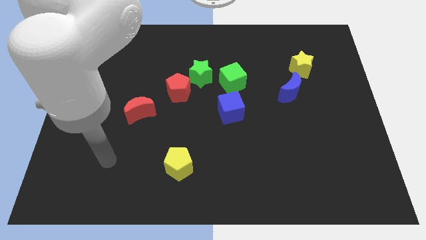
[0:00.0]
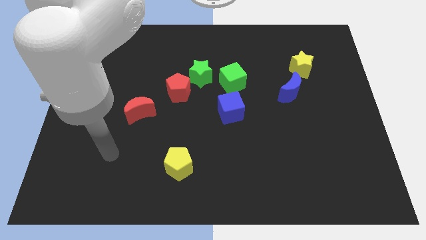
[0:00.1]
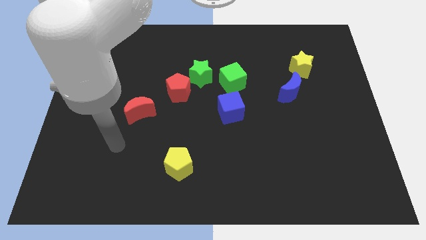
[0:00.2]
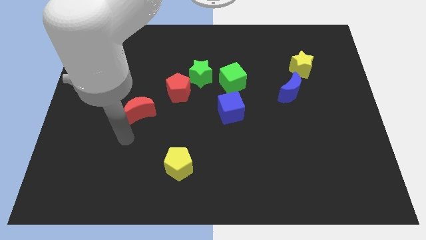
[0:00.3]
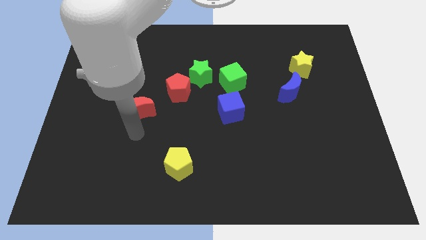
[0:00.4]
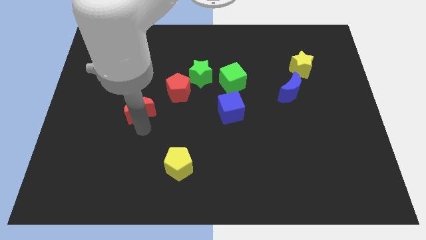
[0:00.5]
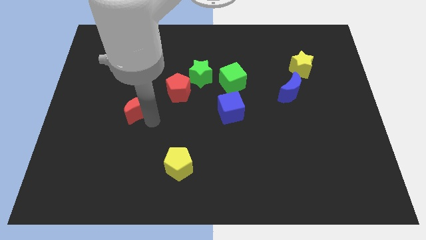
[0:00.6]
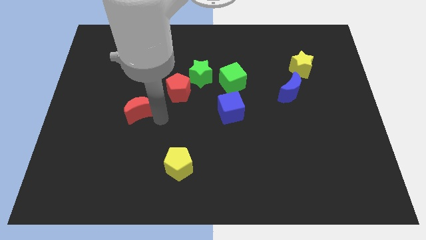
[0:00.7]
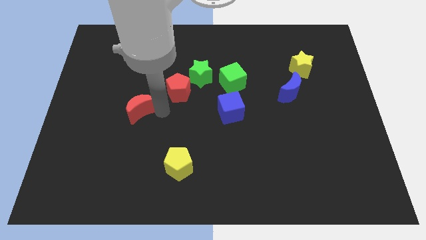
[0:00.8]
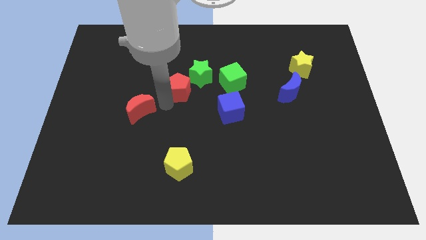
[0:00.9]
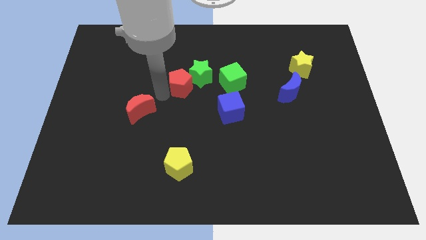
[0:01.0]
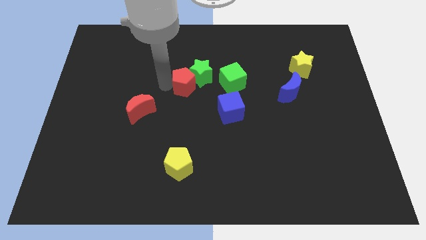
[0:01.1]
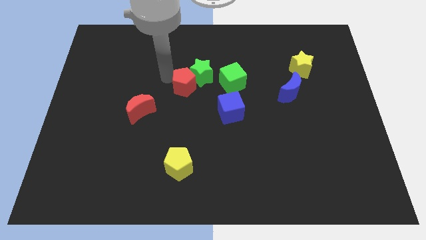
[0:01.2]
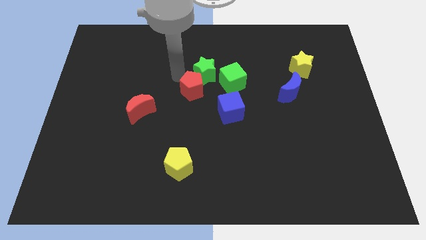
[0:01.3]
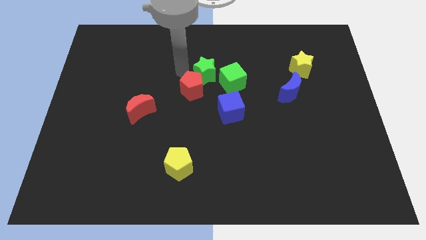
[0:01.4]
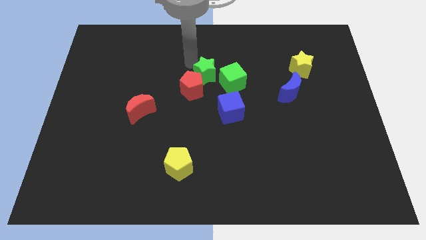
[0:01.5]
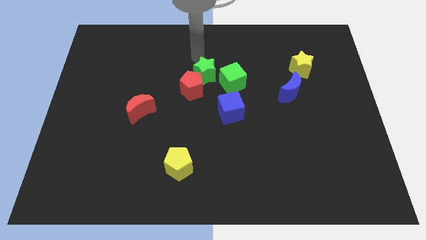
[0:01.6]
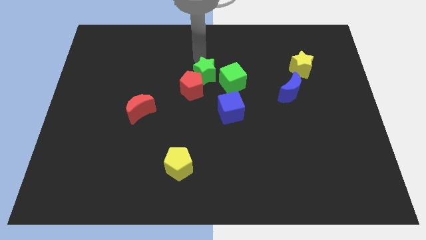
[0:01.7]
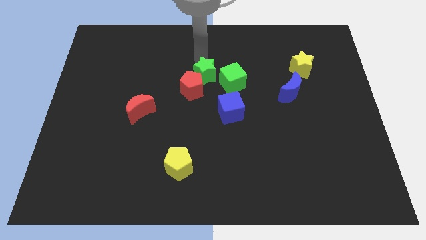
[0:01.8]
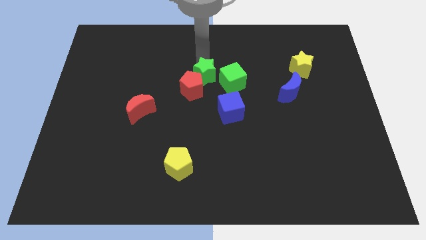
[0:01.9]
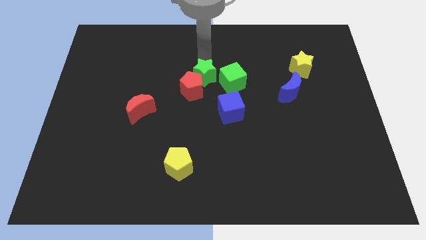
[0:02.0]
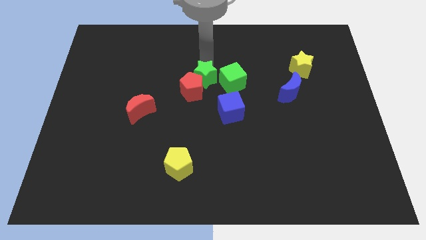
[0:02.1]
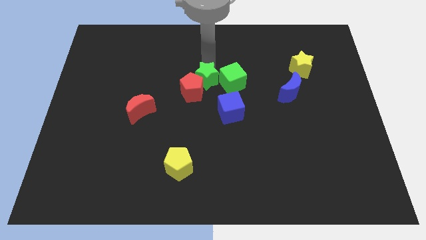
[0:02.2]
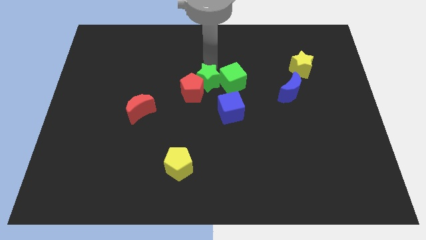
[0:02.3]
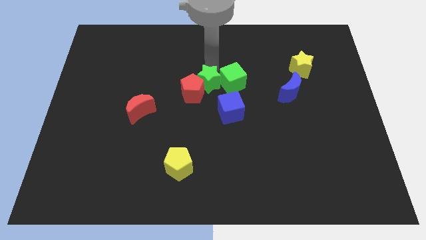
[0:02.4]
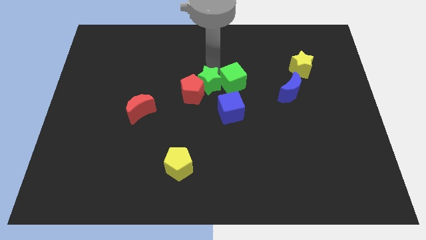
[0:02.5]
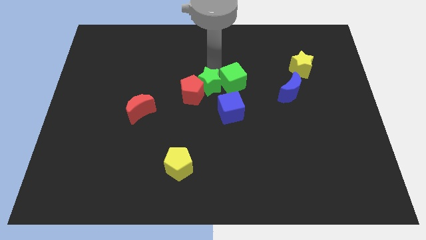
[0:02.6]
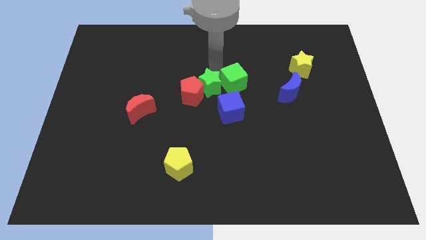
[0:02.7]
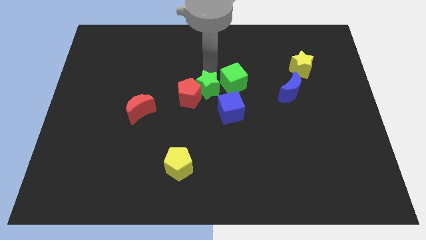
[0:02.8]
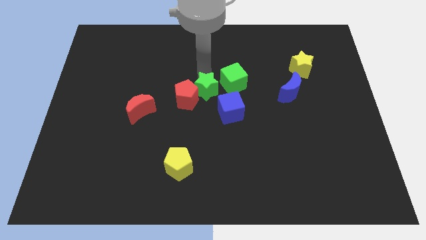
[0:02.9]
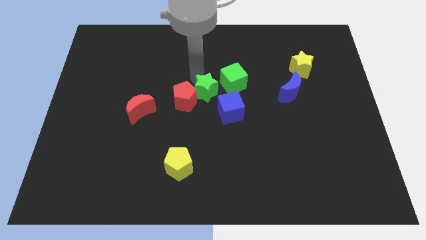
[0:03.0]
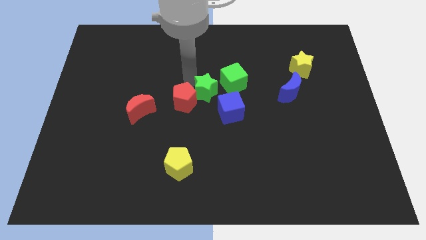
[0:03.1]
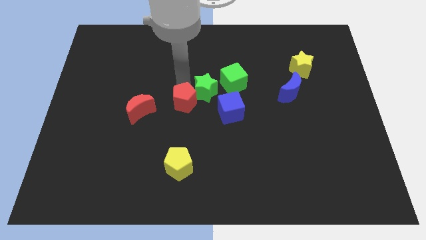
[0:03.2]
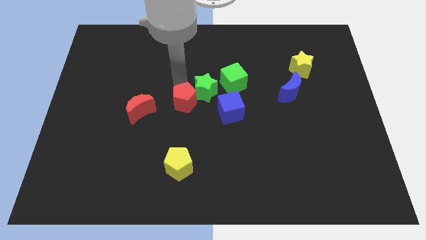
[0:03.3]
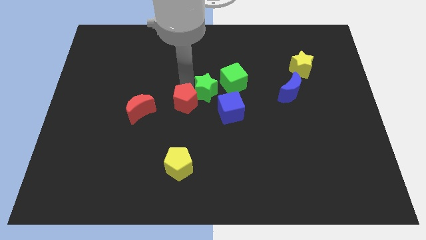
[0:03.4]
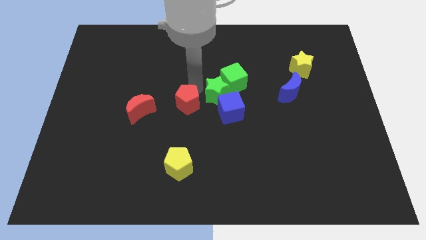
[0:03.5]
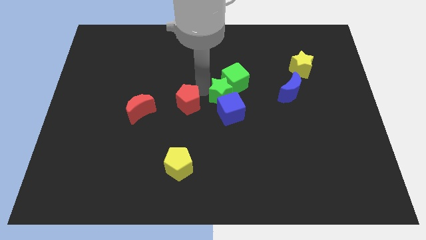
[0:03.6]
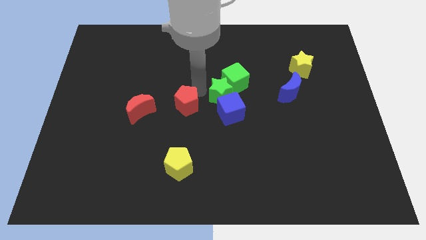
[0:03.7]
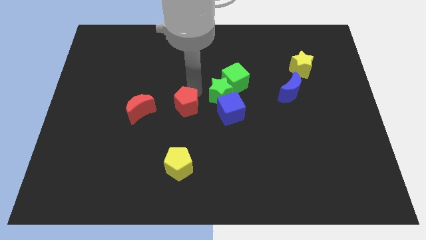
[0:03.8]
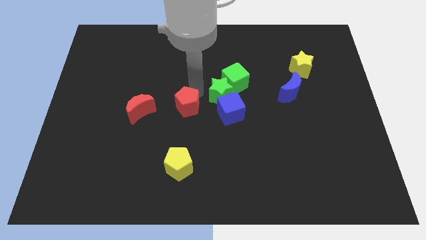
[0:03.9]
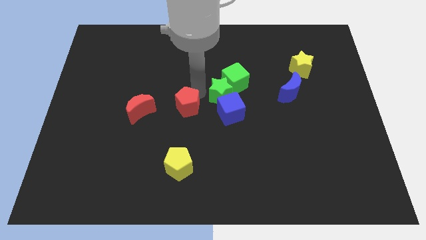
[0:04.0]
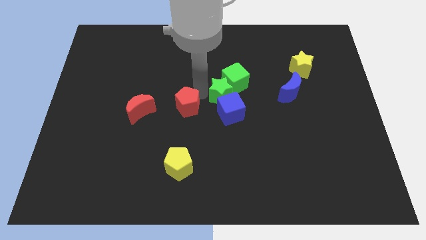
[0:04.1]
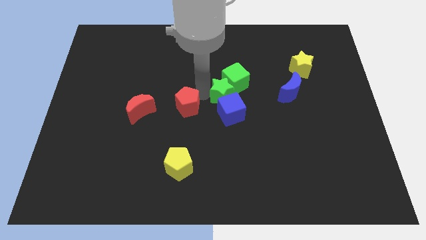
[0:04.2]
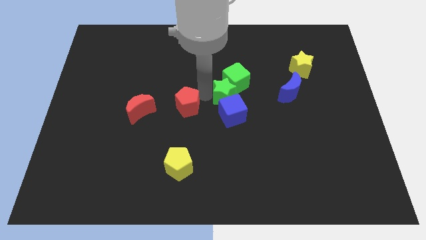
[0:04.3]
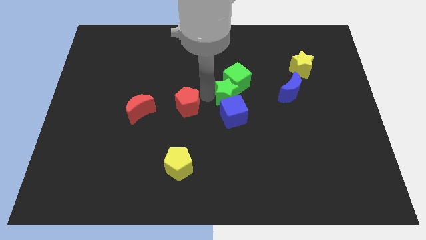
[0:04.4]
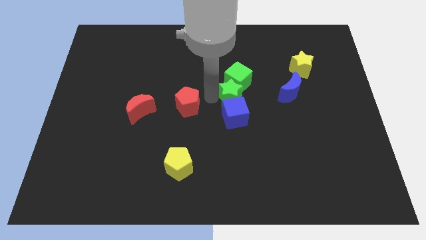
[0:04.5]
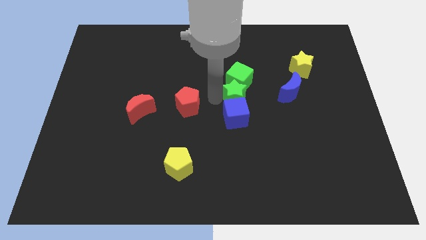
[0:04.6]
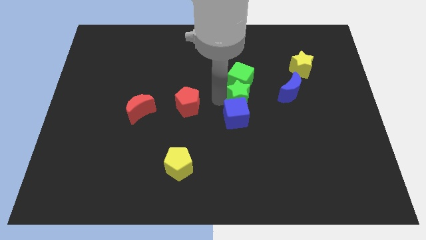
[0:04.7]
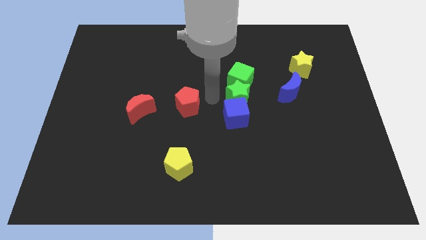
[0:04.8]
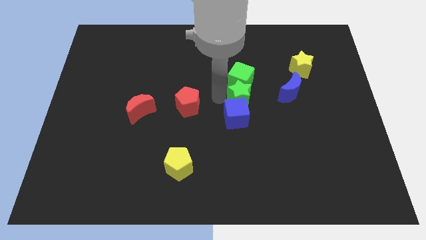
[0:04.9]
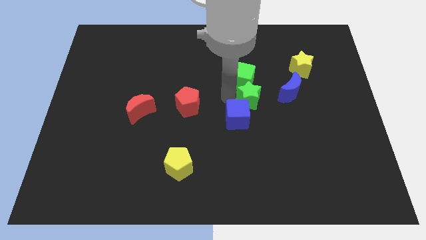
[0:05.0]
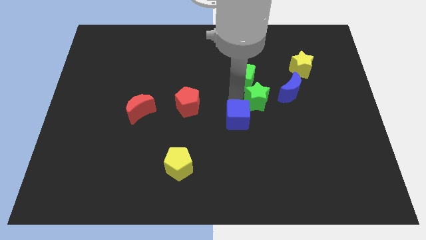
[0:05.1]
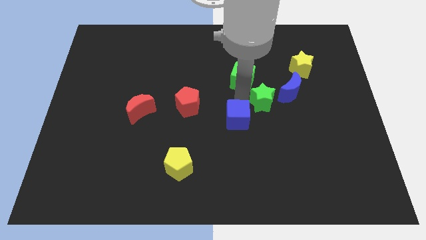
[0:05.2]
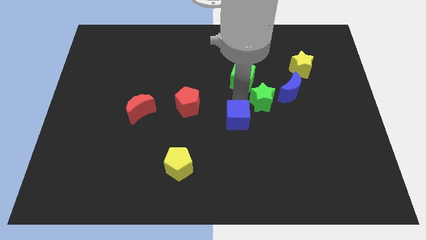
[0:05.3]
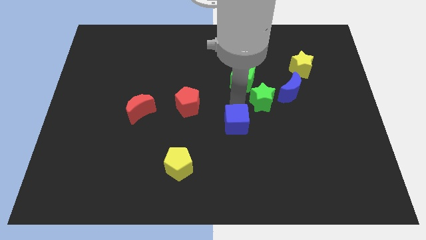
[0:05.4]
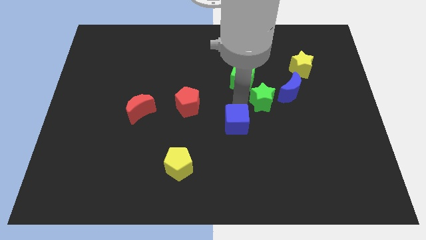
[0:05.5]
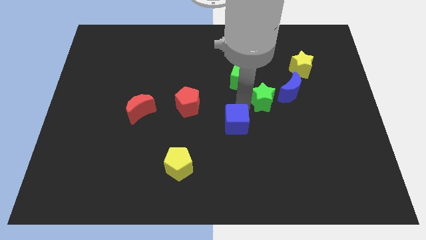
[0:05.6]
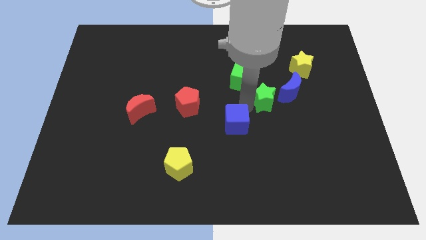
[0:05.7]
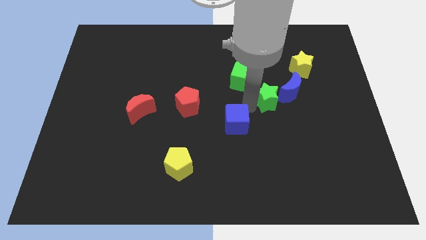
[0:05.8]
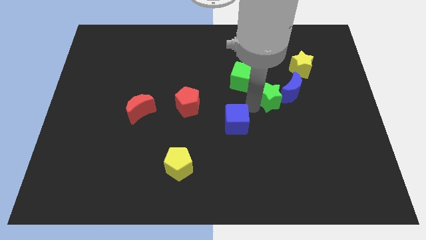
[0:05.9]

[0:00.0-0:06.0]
push the green star towards the blue moon
